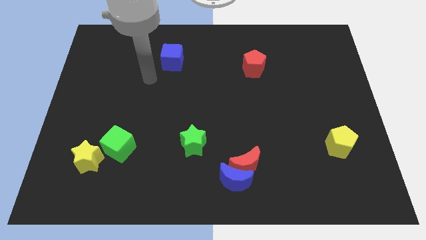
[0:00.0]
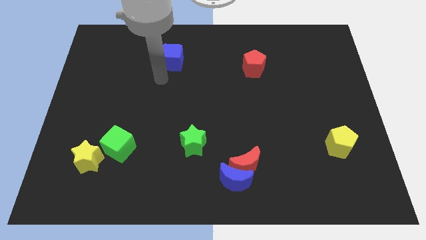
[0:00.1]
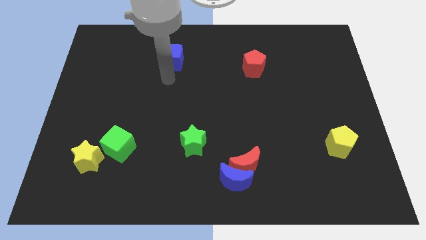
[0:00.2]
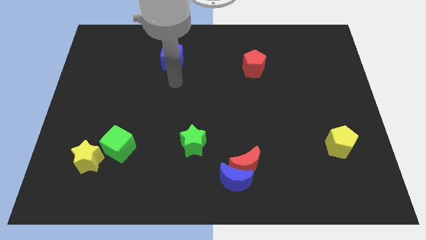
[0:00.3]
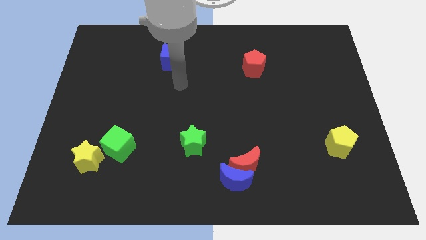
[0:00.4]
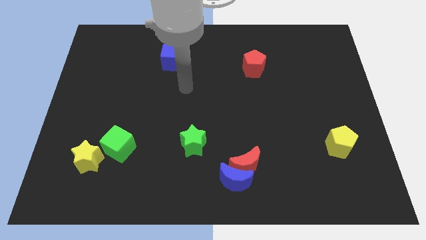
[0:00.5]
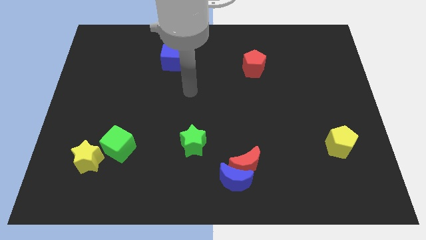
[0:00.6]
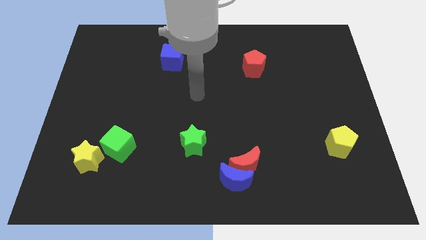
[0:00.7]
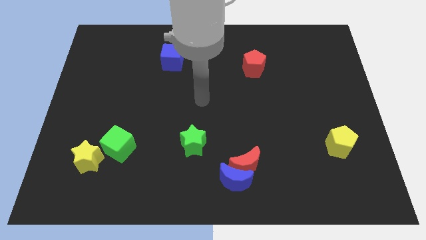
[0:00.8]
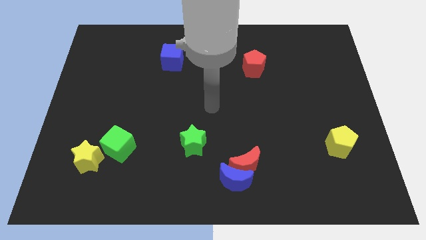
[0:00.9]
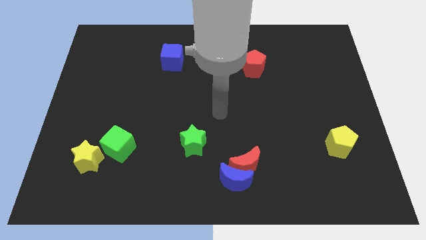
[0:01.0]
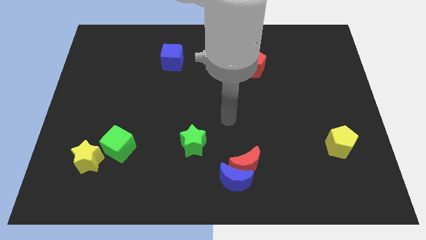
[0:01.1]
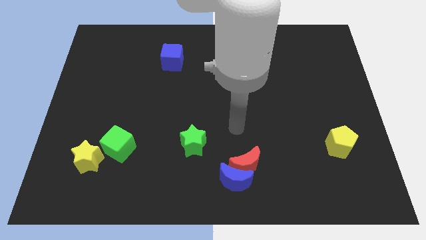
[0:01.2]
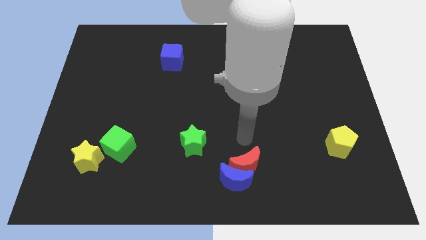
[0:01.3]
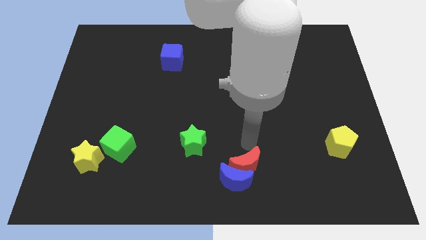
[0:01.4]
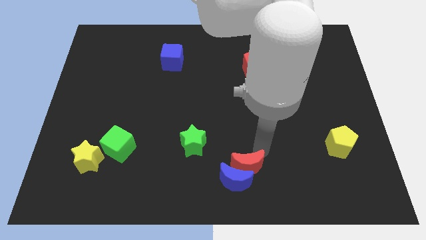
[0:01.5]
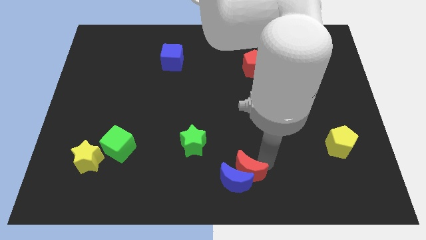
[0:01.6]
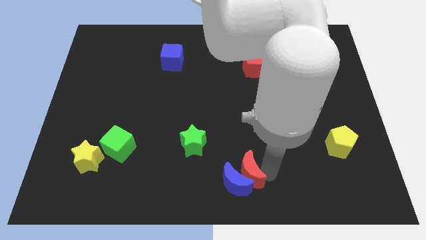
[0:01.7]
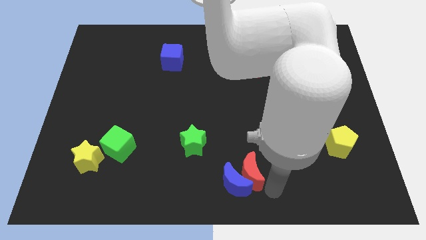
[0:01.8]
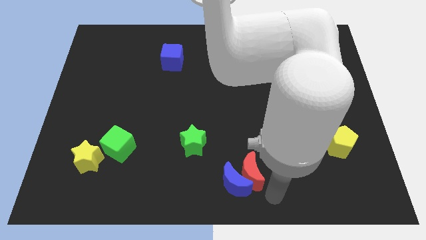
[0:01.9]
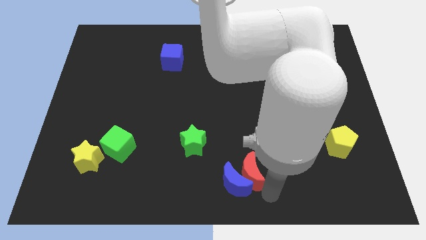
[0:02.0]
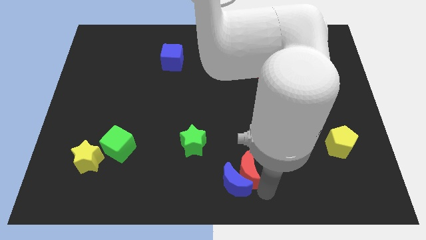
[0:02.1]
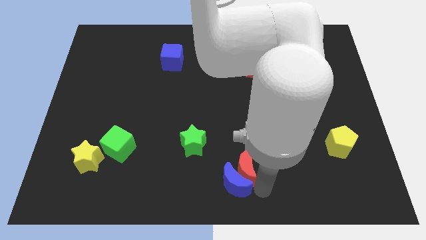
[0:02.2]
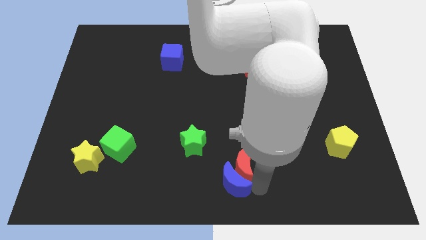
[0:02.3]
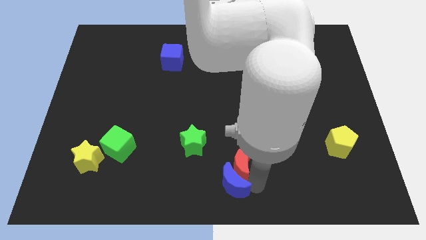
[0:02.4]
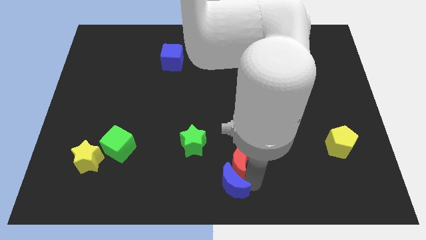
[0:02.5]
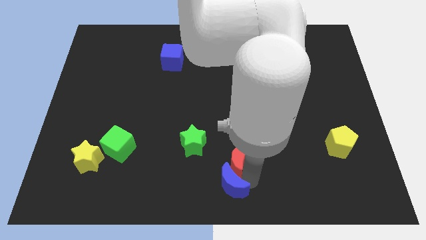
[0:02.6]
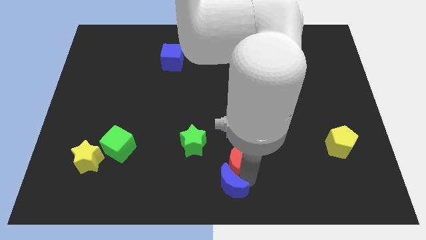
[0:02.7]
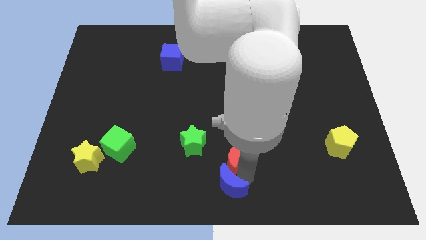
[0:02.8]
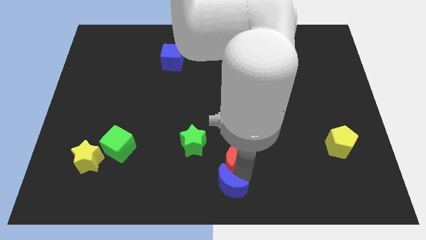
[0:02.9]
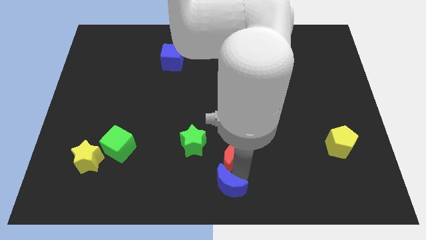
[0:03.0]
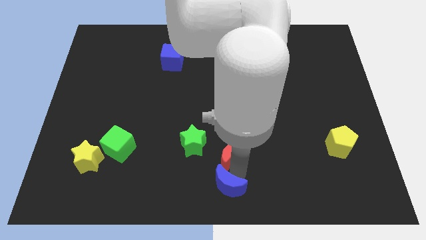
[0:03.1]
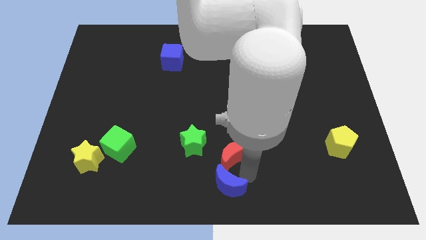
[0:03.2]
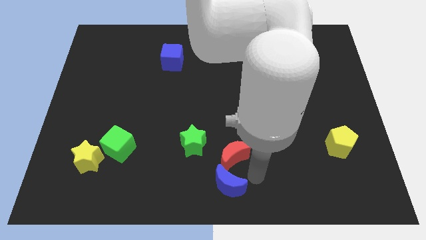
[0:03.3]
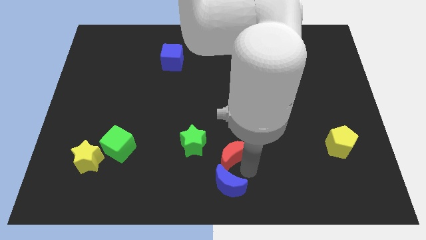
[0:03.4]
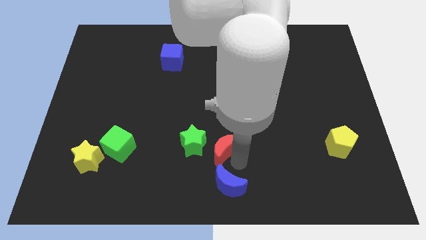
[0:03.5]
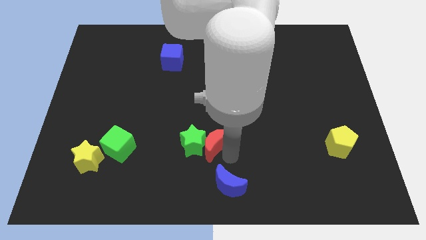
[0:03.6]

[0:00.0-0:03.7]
slide the red moon a little bit up and then to the left

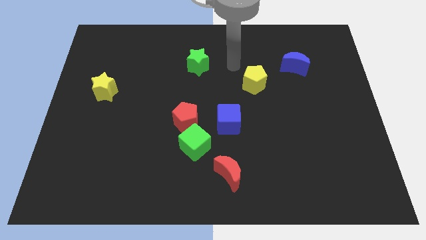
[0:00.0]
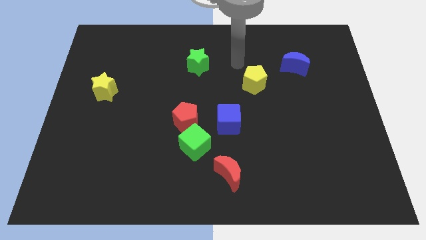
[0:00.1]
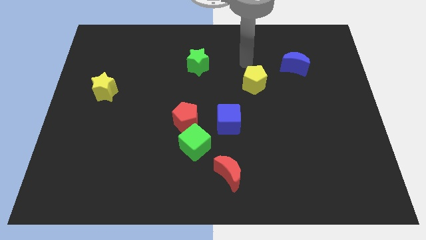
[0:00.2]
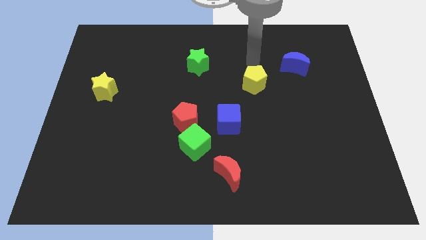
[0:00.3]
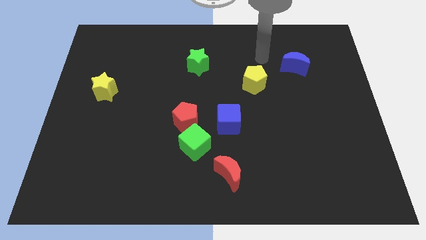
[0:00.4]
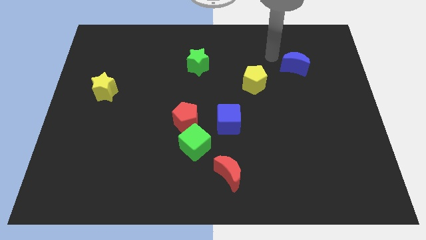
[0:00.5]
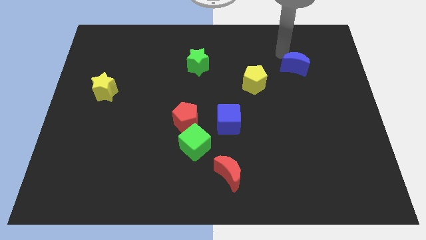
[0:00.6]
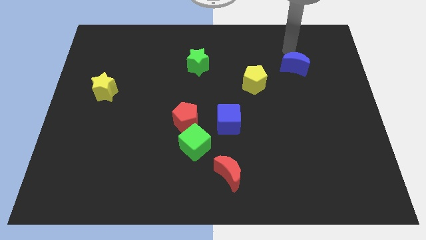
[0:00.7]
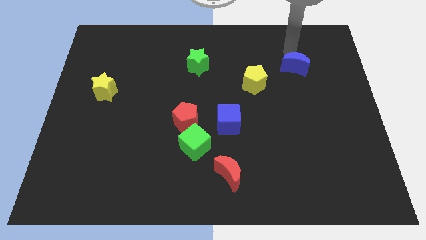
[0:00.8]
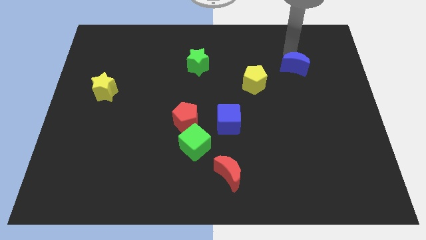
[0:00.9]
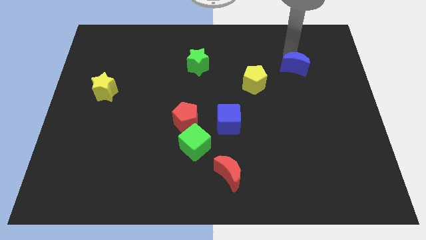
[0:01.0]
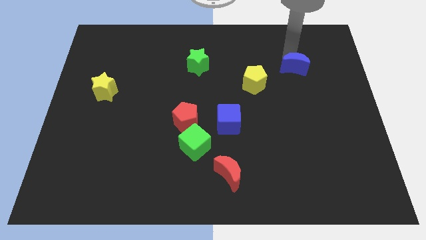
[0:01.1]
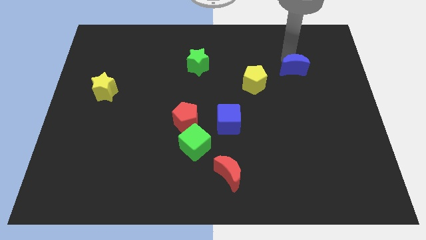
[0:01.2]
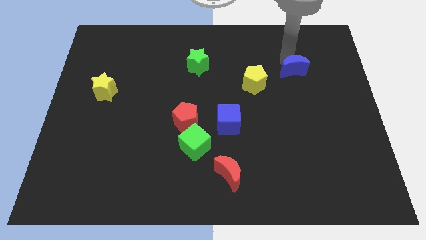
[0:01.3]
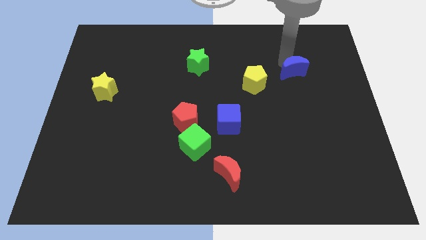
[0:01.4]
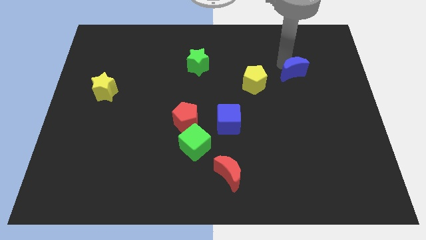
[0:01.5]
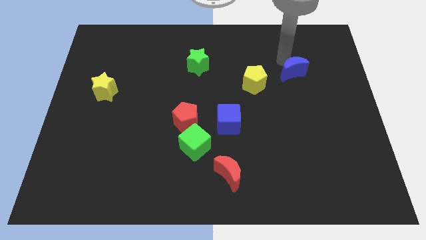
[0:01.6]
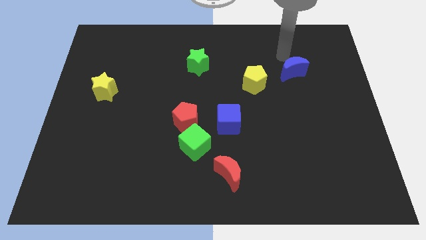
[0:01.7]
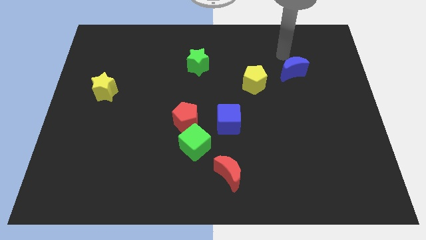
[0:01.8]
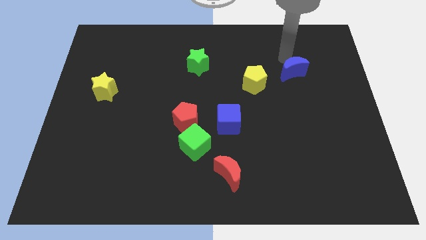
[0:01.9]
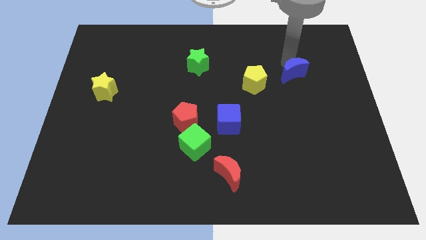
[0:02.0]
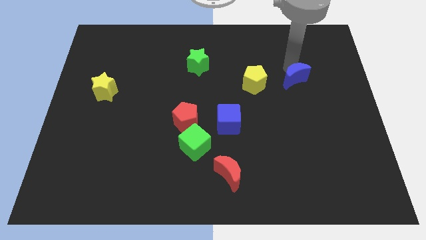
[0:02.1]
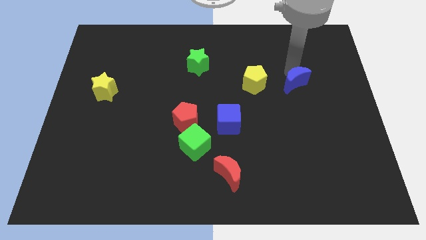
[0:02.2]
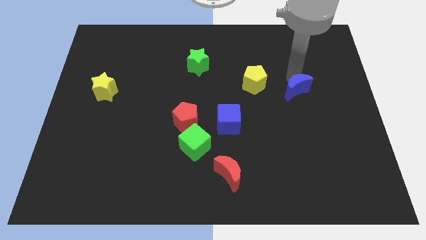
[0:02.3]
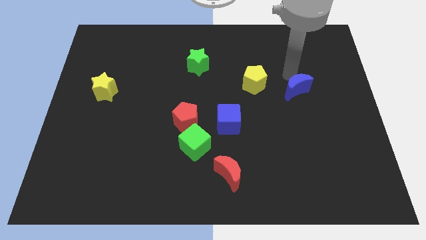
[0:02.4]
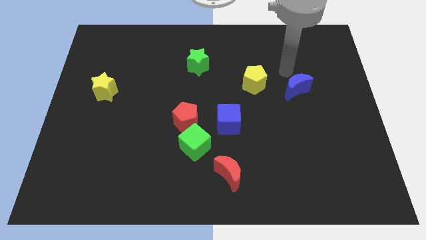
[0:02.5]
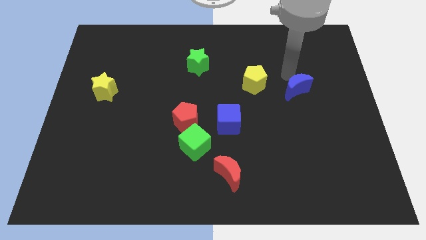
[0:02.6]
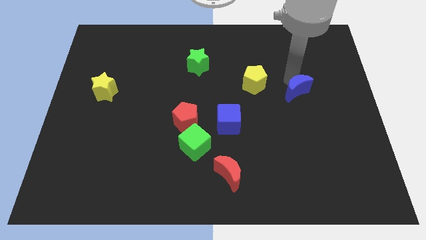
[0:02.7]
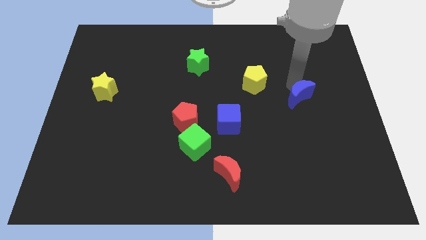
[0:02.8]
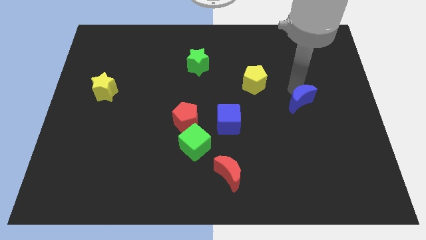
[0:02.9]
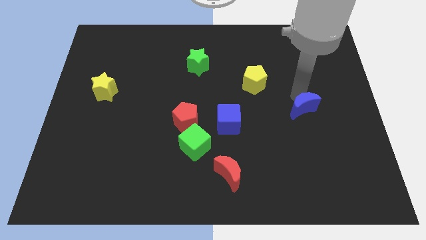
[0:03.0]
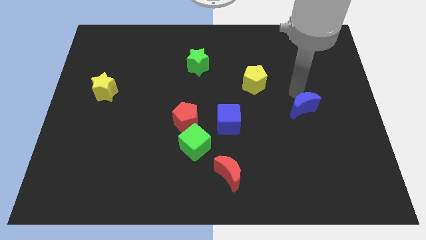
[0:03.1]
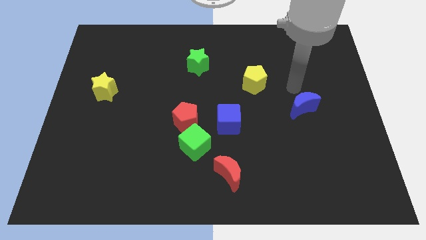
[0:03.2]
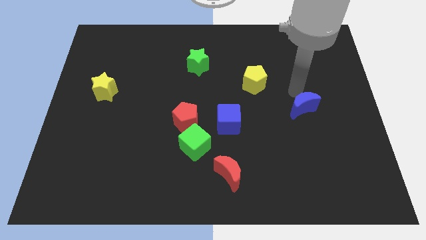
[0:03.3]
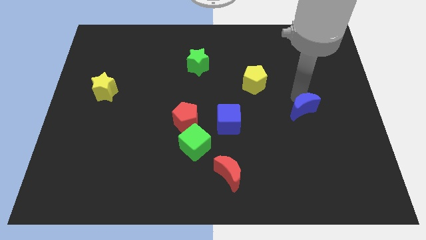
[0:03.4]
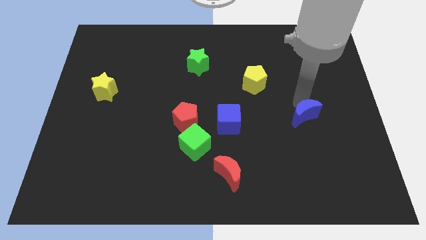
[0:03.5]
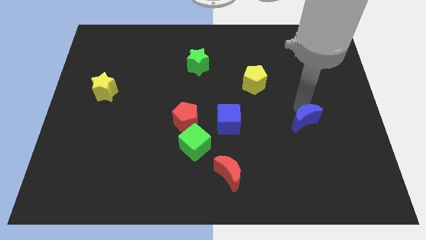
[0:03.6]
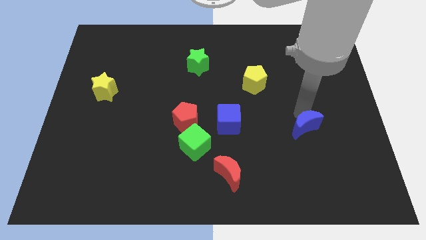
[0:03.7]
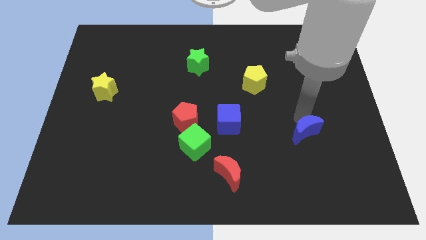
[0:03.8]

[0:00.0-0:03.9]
move the blue moon downwards

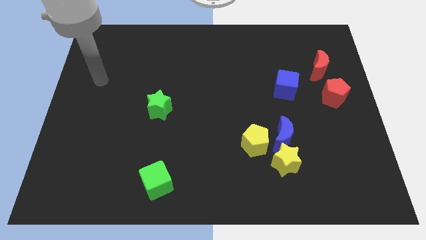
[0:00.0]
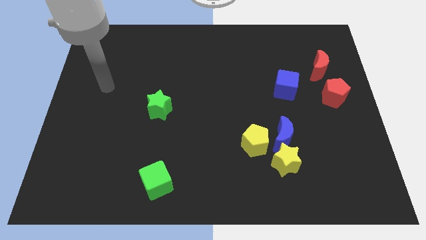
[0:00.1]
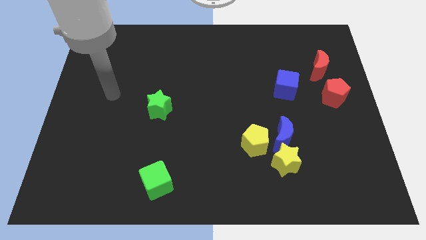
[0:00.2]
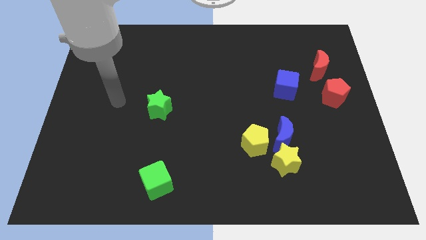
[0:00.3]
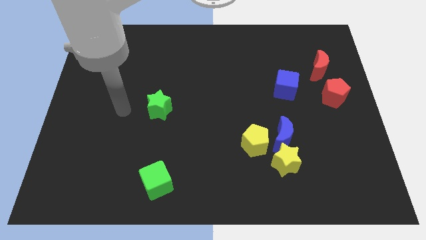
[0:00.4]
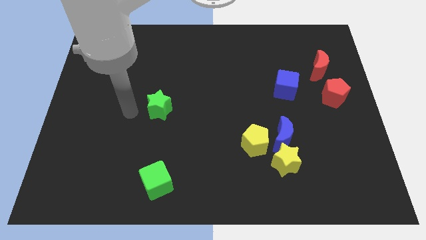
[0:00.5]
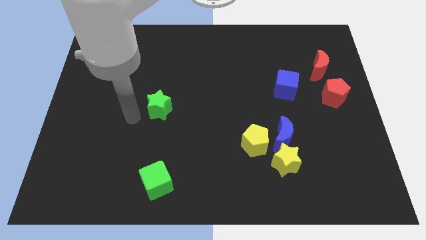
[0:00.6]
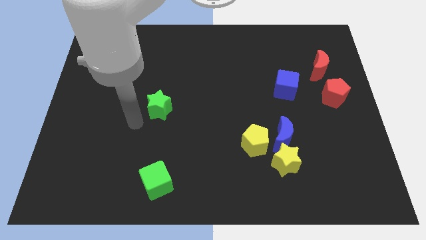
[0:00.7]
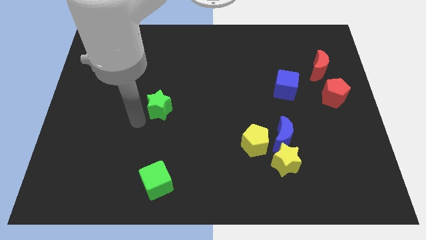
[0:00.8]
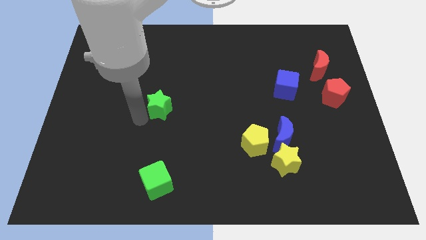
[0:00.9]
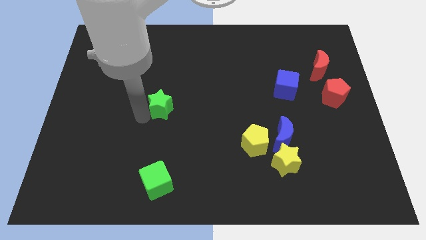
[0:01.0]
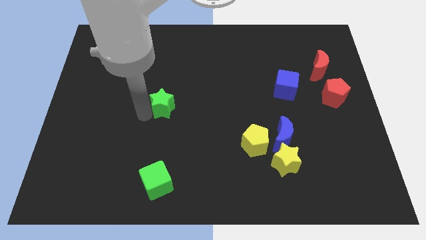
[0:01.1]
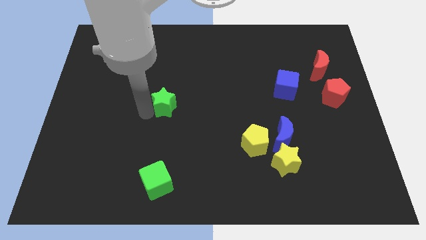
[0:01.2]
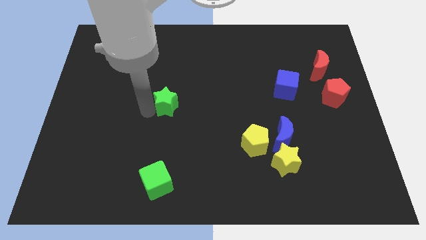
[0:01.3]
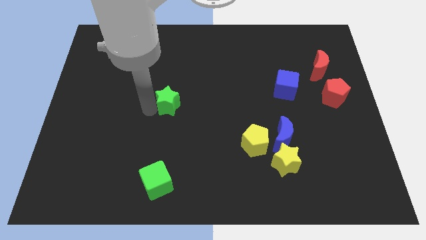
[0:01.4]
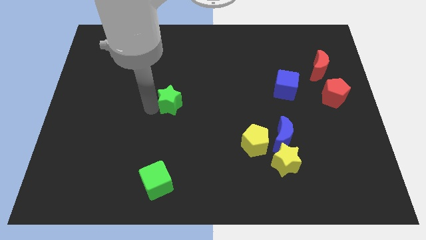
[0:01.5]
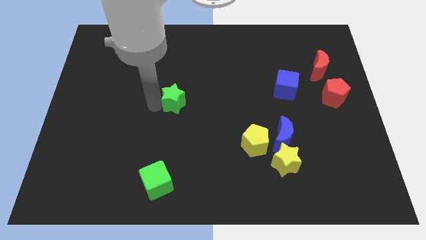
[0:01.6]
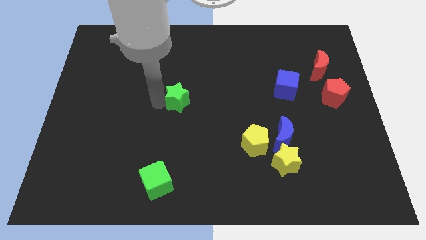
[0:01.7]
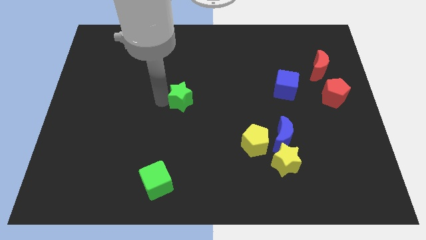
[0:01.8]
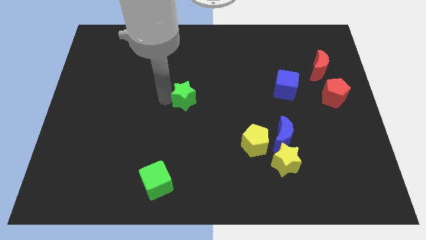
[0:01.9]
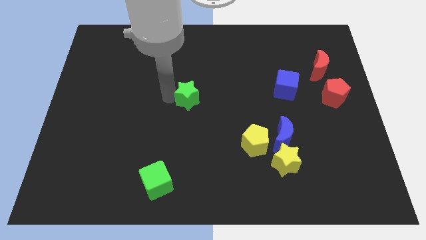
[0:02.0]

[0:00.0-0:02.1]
move the green star up and right diagonally somewhat
